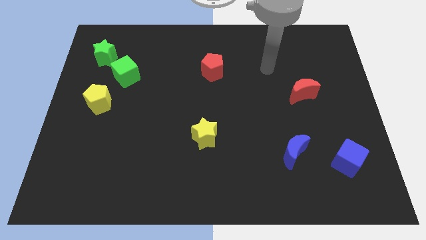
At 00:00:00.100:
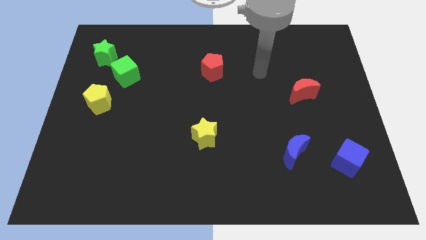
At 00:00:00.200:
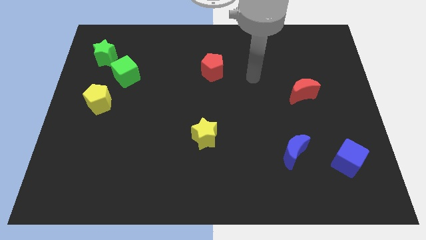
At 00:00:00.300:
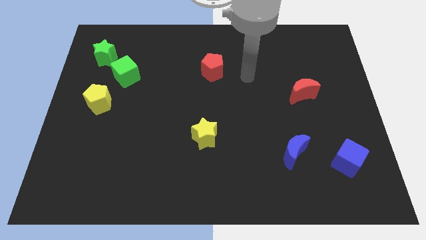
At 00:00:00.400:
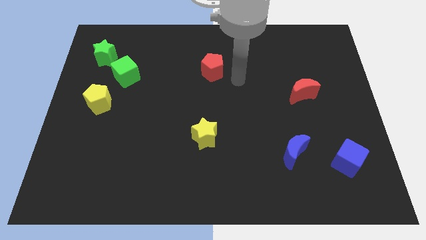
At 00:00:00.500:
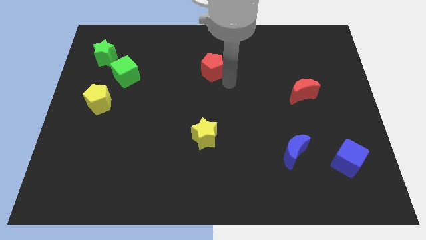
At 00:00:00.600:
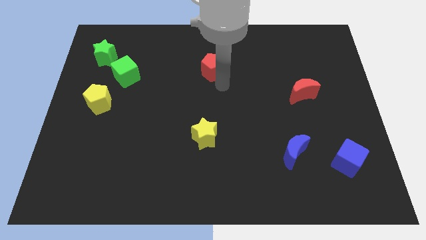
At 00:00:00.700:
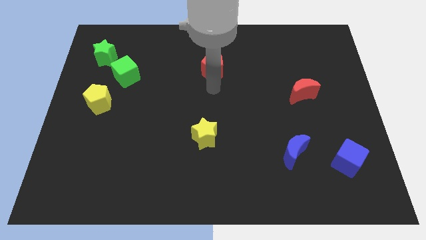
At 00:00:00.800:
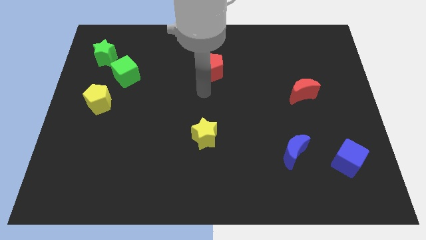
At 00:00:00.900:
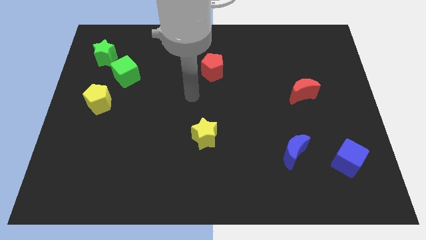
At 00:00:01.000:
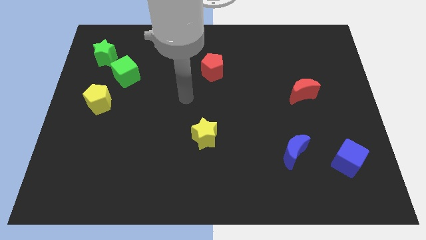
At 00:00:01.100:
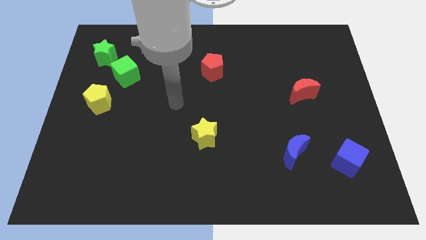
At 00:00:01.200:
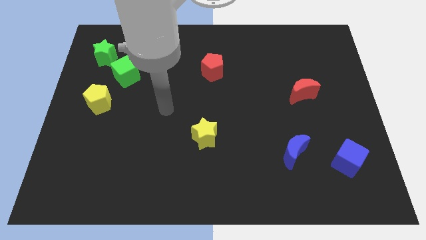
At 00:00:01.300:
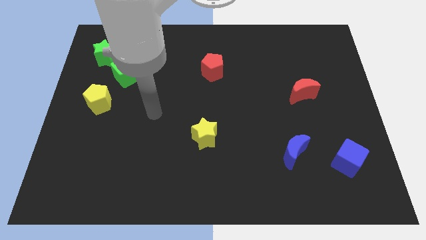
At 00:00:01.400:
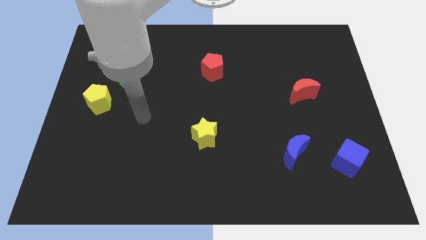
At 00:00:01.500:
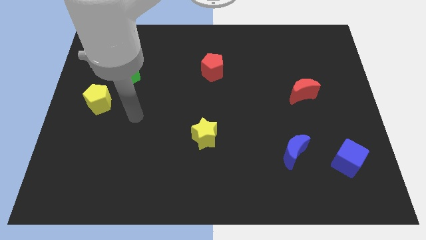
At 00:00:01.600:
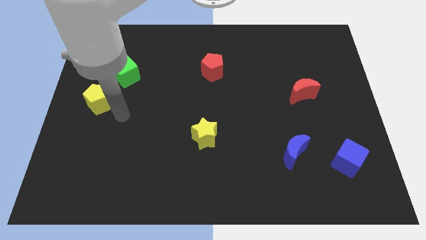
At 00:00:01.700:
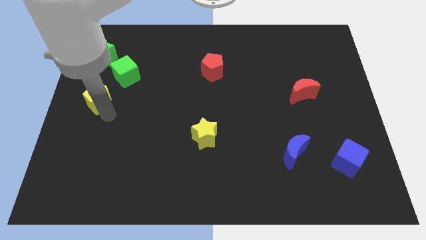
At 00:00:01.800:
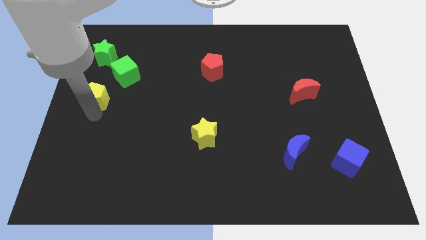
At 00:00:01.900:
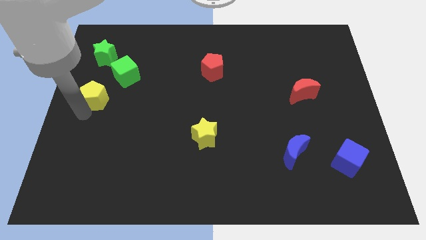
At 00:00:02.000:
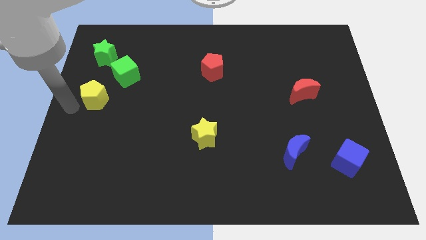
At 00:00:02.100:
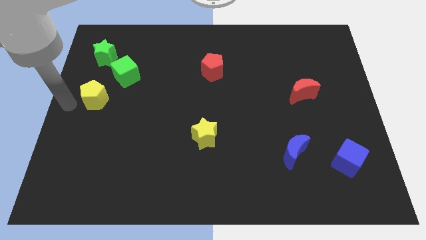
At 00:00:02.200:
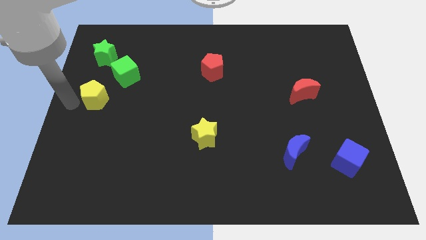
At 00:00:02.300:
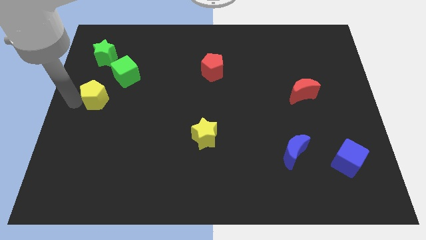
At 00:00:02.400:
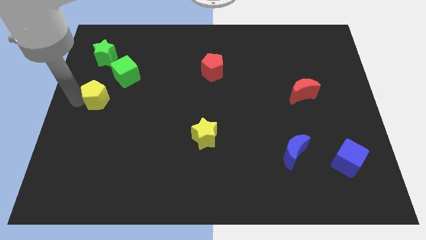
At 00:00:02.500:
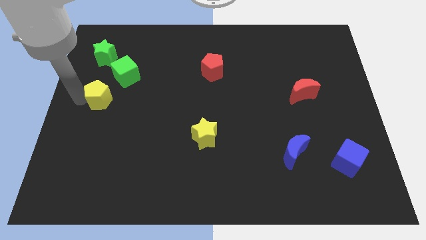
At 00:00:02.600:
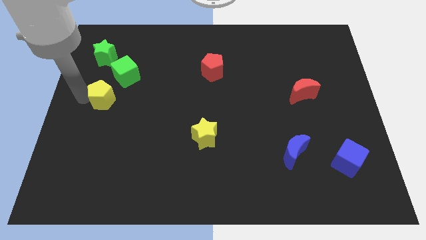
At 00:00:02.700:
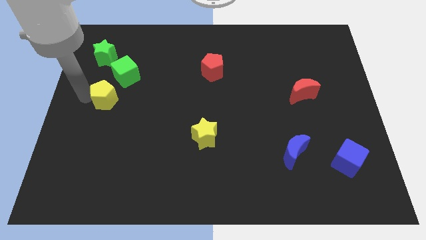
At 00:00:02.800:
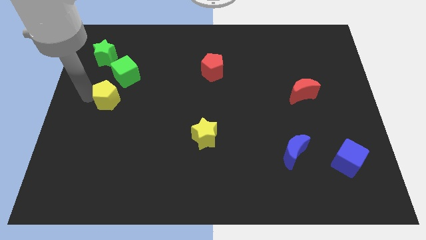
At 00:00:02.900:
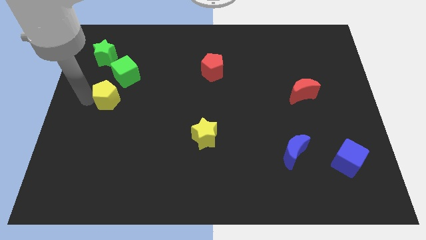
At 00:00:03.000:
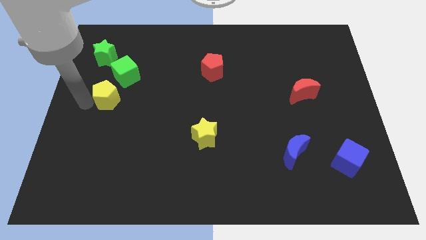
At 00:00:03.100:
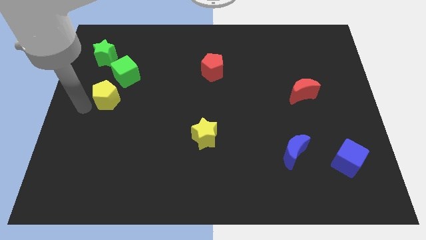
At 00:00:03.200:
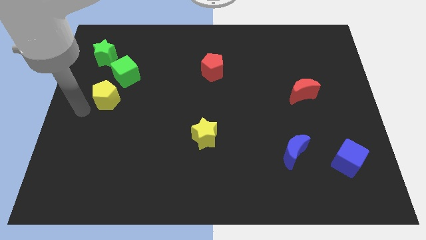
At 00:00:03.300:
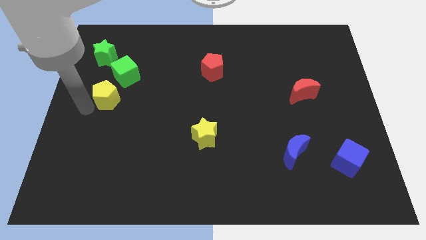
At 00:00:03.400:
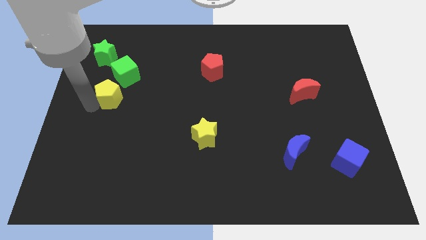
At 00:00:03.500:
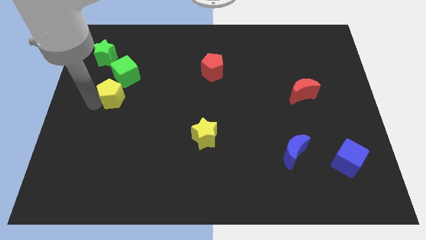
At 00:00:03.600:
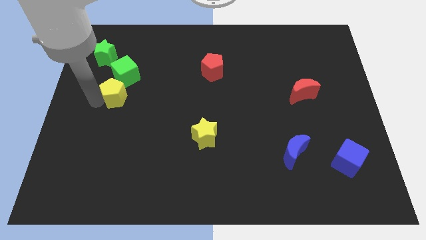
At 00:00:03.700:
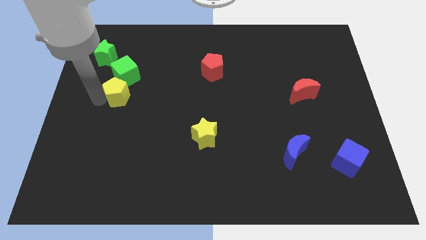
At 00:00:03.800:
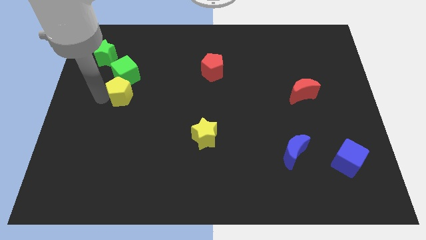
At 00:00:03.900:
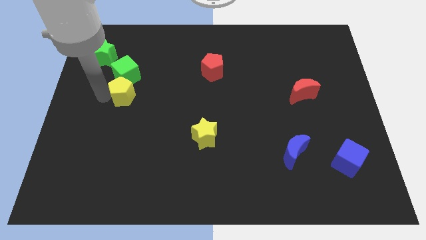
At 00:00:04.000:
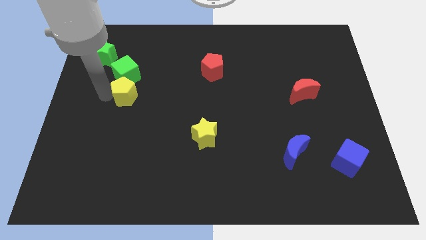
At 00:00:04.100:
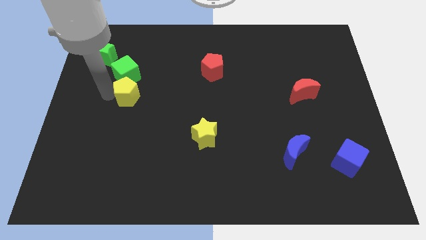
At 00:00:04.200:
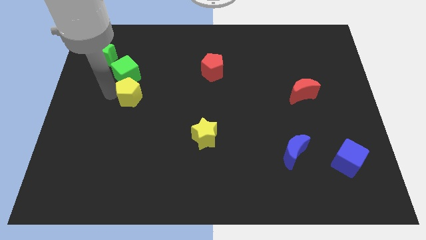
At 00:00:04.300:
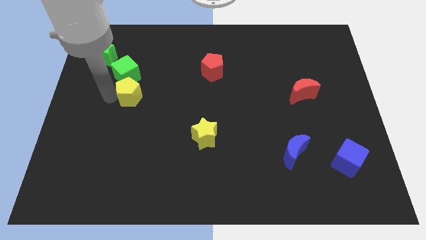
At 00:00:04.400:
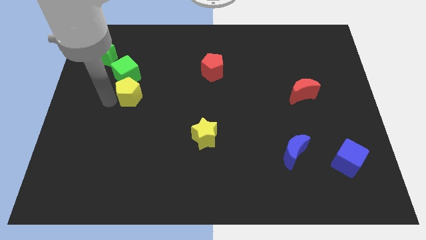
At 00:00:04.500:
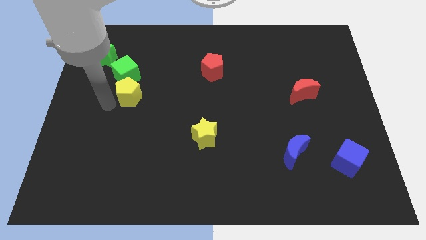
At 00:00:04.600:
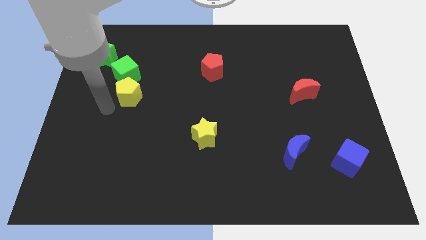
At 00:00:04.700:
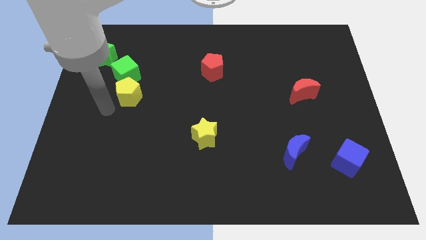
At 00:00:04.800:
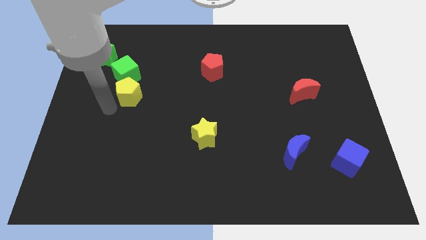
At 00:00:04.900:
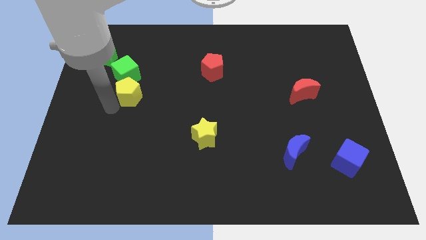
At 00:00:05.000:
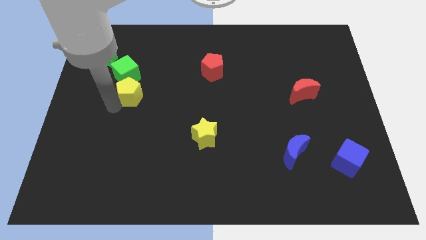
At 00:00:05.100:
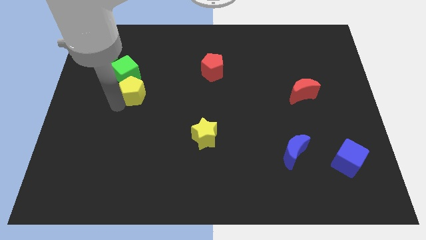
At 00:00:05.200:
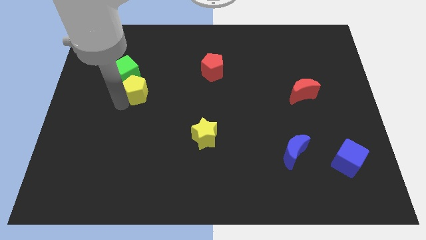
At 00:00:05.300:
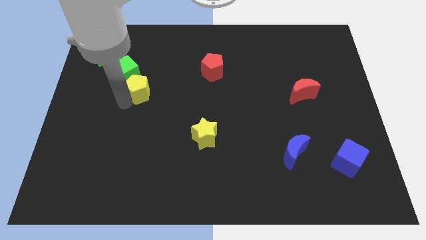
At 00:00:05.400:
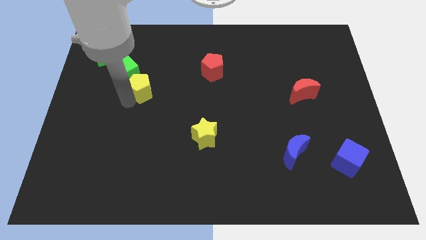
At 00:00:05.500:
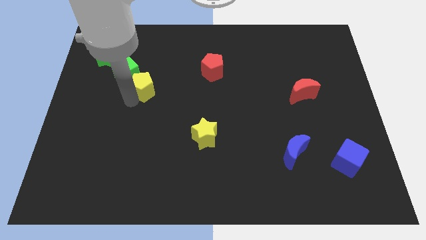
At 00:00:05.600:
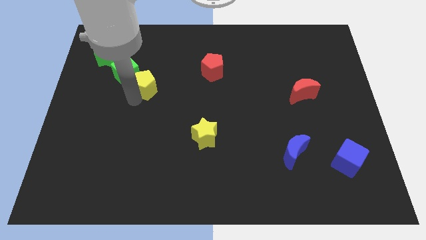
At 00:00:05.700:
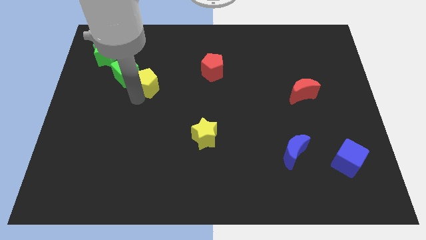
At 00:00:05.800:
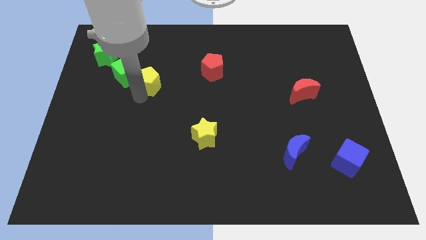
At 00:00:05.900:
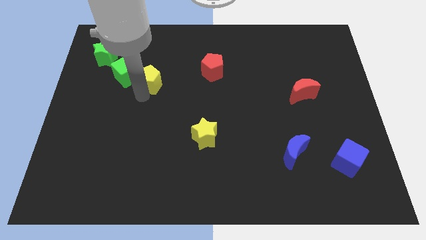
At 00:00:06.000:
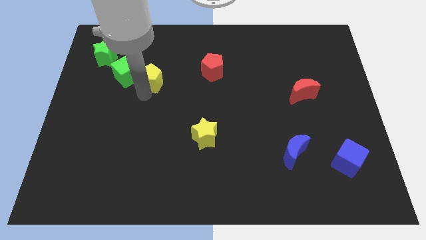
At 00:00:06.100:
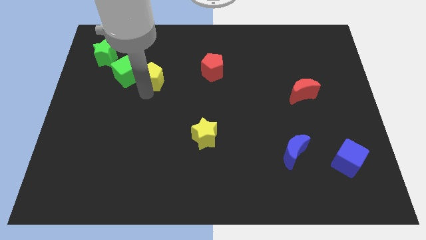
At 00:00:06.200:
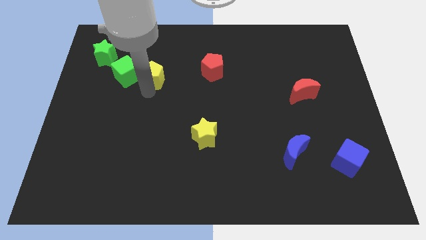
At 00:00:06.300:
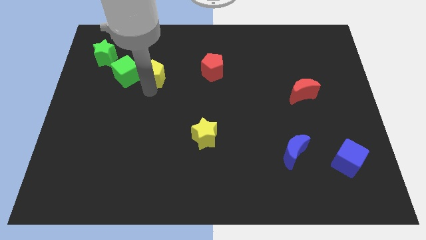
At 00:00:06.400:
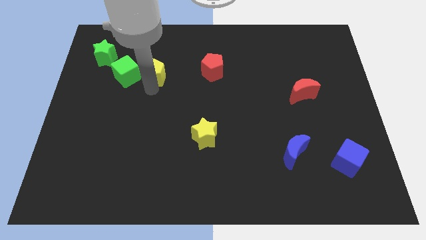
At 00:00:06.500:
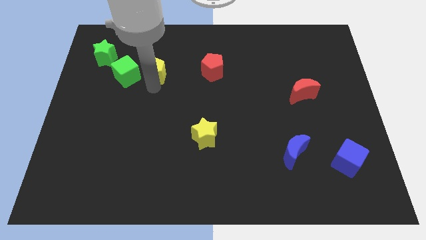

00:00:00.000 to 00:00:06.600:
slide the yellow pentagon to the top right side of the green cube
